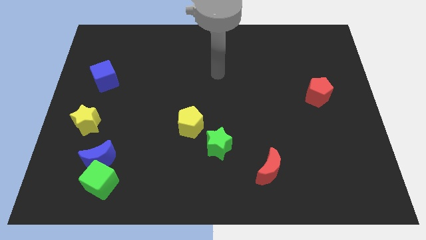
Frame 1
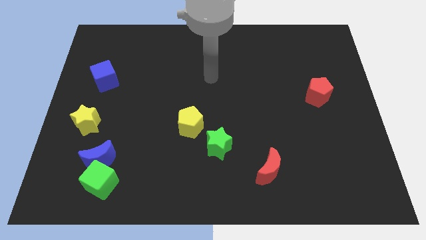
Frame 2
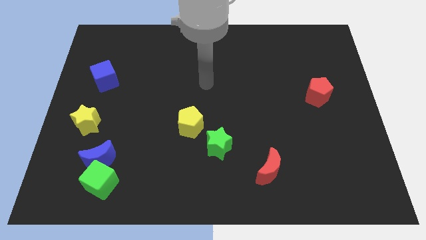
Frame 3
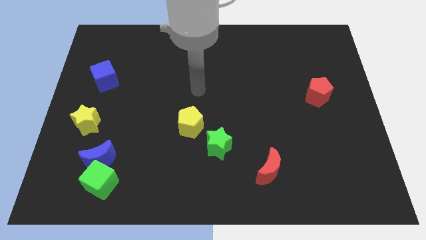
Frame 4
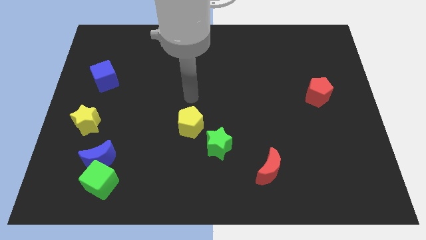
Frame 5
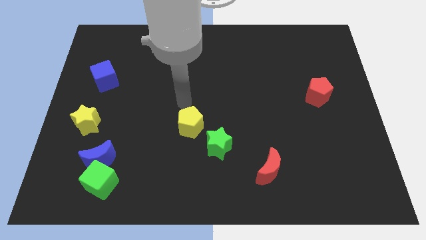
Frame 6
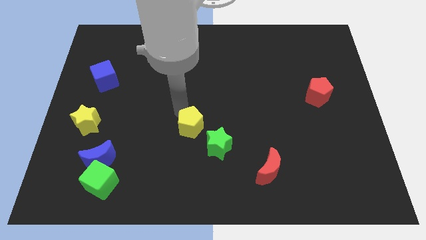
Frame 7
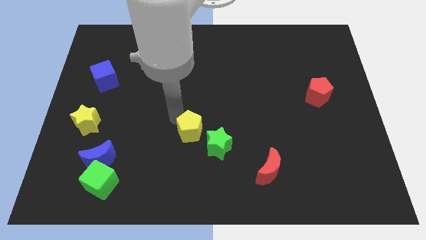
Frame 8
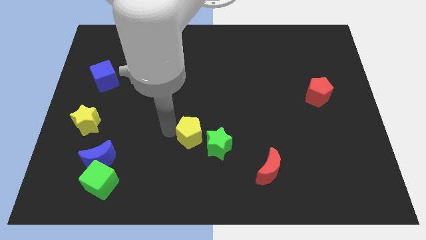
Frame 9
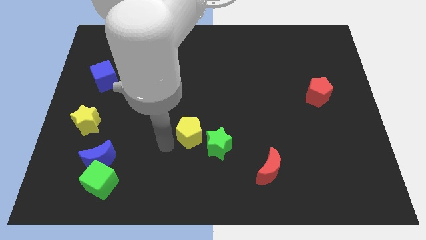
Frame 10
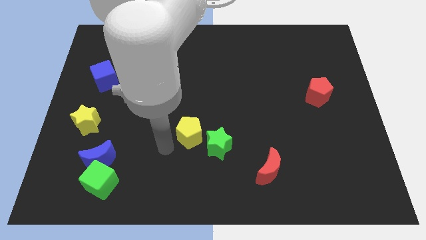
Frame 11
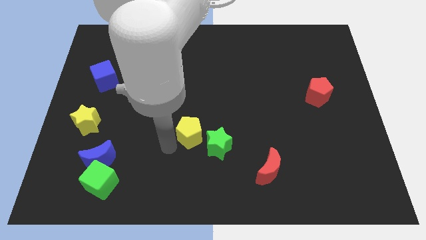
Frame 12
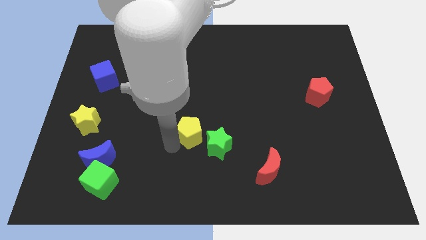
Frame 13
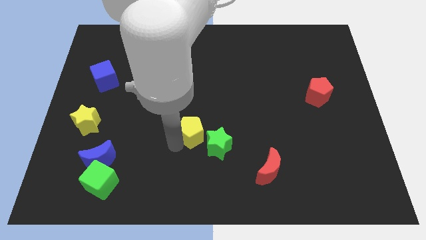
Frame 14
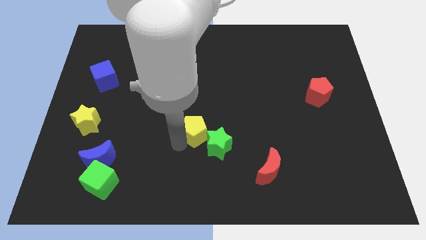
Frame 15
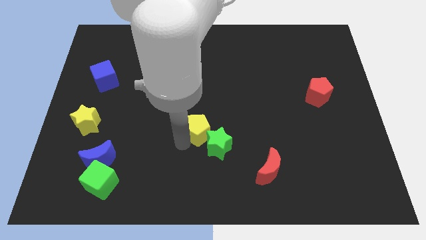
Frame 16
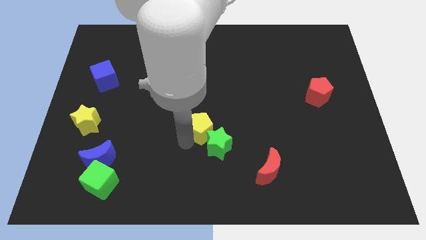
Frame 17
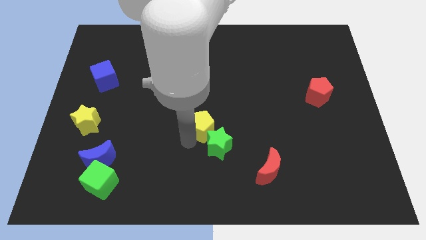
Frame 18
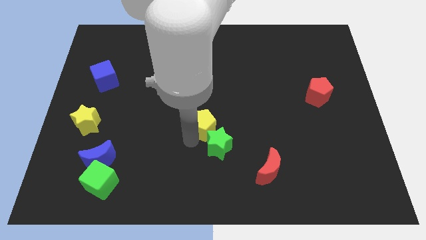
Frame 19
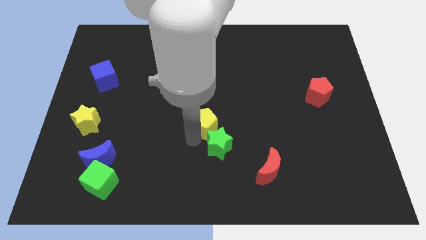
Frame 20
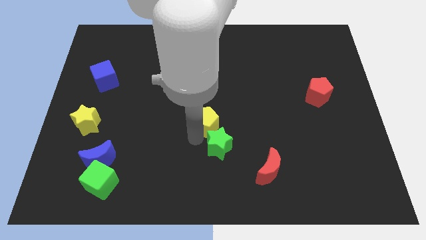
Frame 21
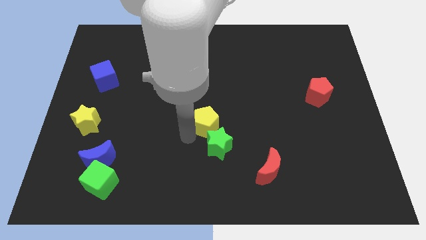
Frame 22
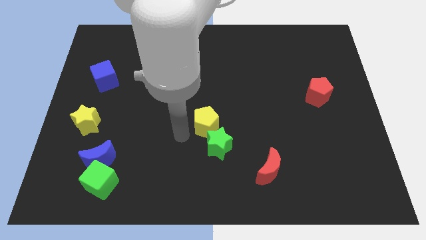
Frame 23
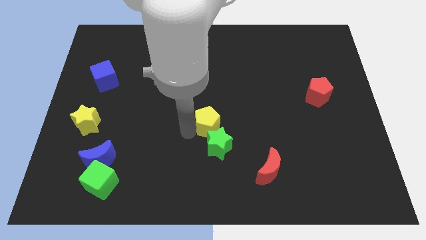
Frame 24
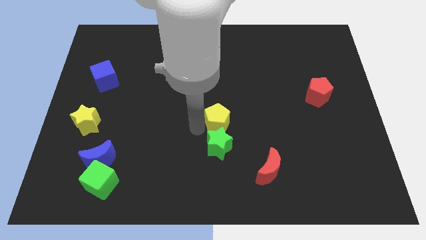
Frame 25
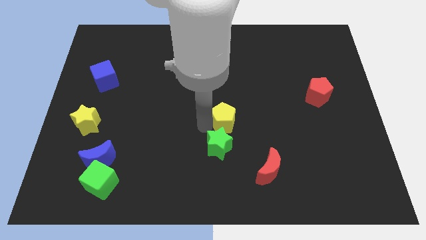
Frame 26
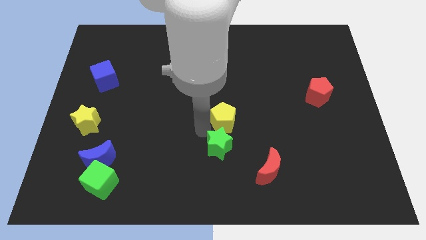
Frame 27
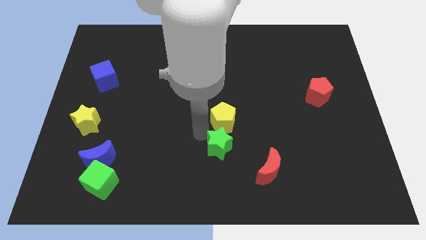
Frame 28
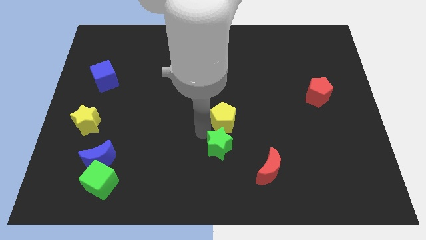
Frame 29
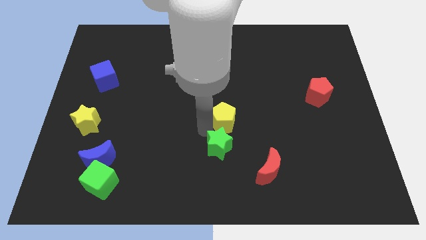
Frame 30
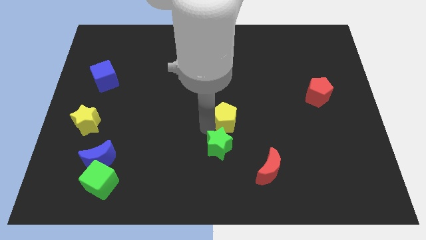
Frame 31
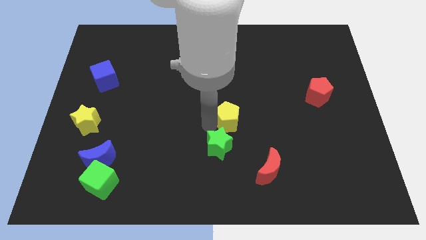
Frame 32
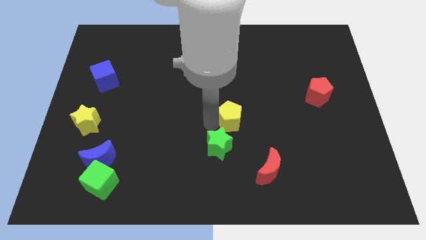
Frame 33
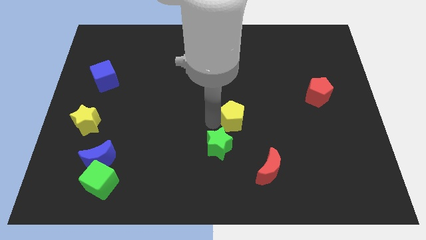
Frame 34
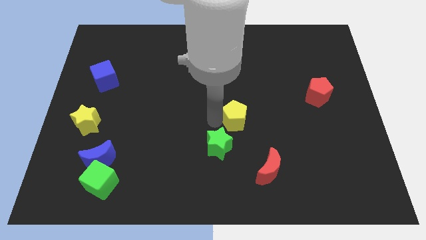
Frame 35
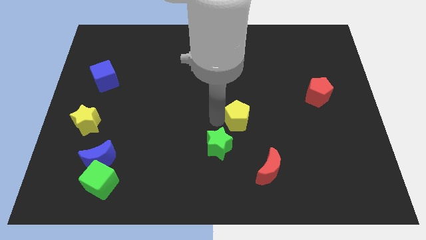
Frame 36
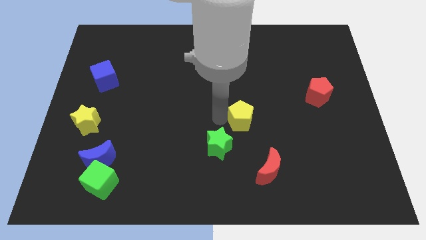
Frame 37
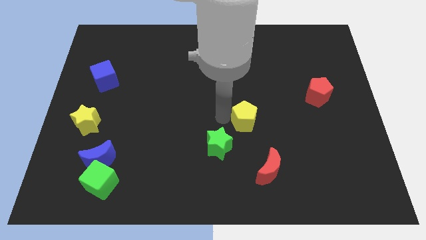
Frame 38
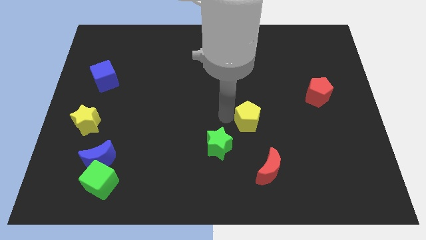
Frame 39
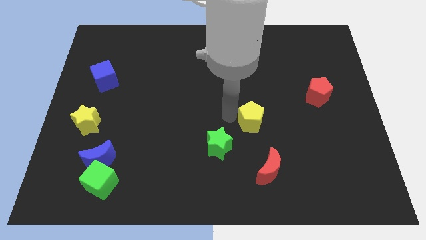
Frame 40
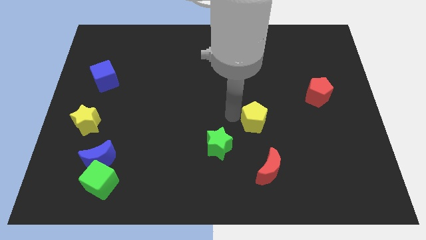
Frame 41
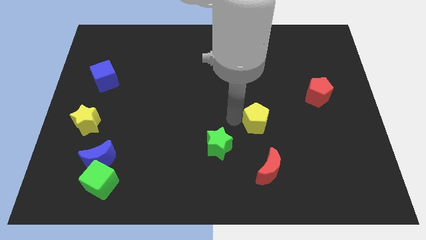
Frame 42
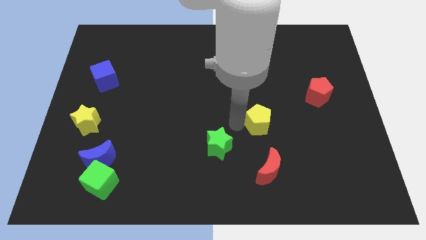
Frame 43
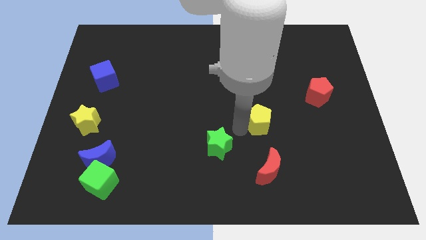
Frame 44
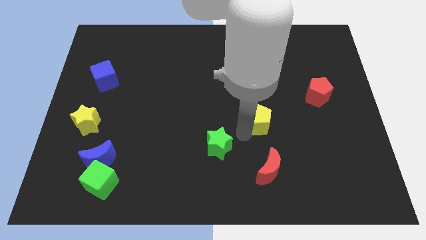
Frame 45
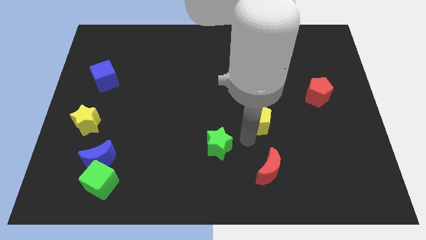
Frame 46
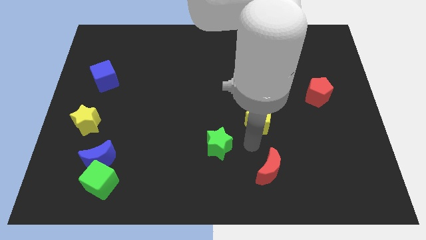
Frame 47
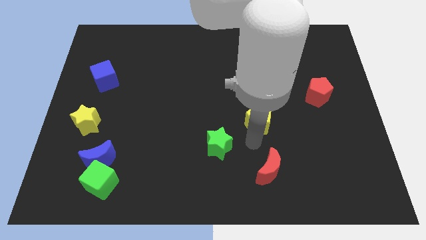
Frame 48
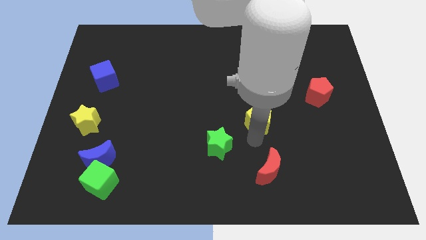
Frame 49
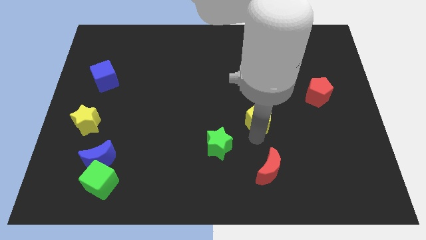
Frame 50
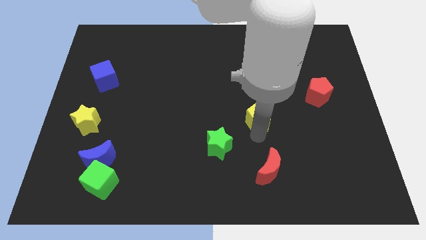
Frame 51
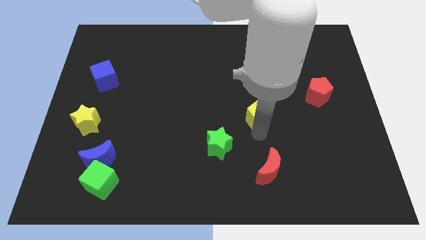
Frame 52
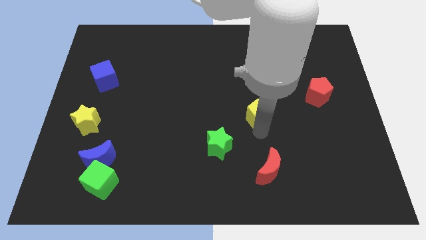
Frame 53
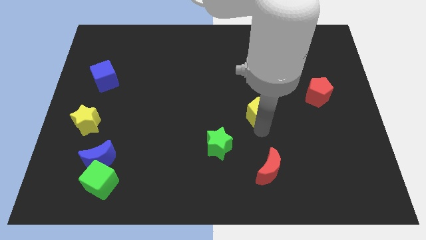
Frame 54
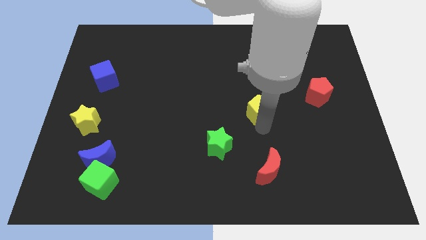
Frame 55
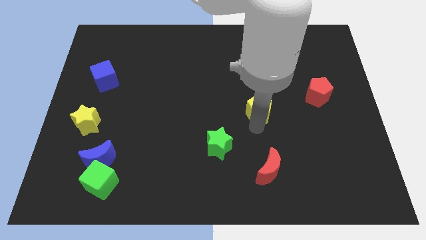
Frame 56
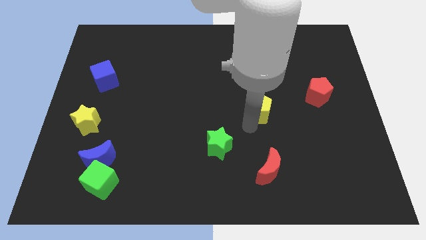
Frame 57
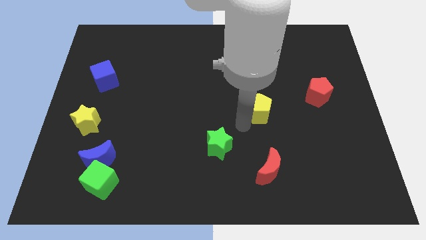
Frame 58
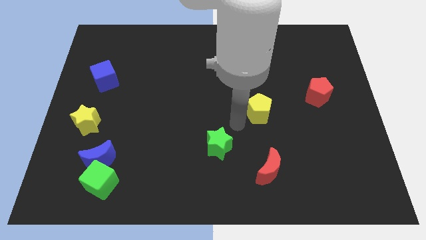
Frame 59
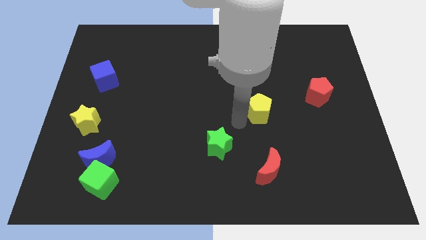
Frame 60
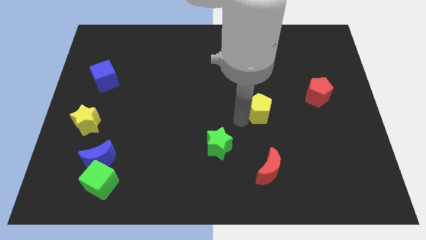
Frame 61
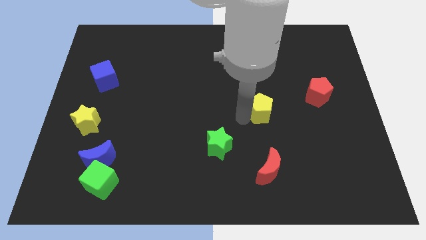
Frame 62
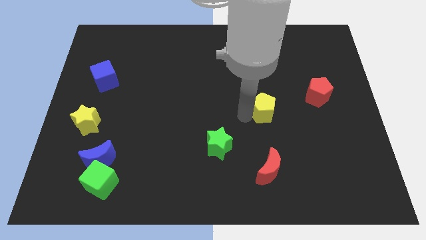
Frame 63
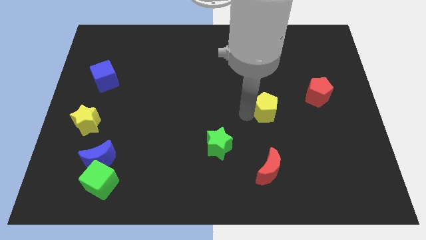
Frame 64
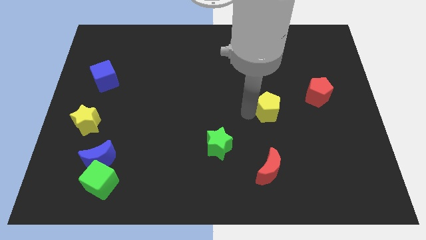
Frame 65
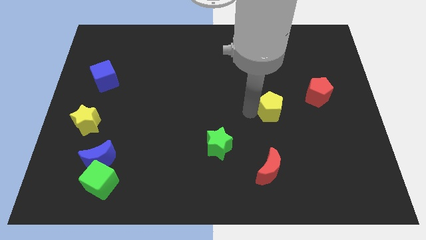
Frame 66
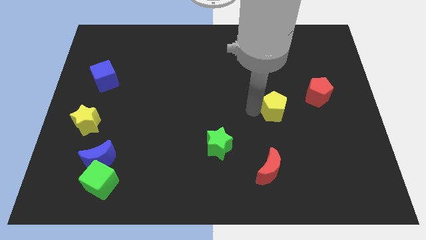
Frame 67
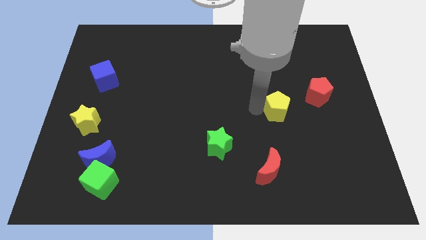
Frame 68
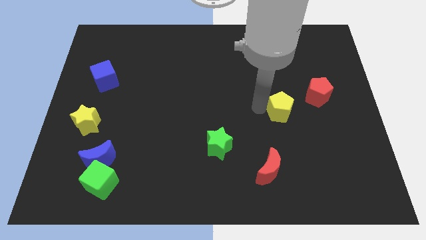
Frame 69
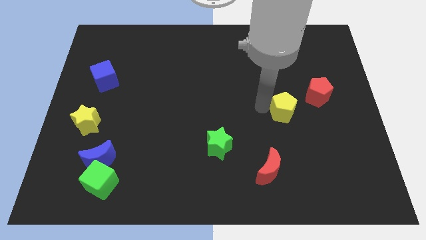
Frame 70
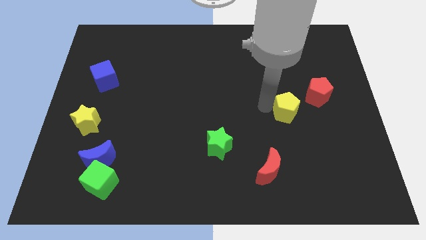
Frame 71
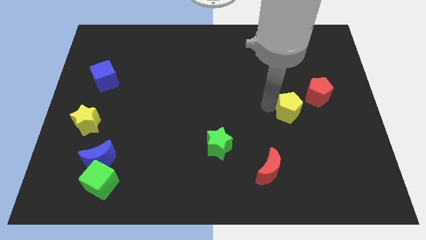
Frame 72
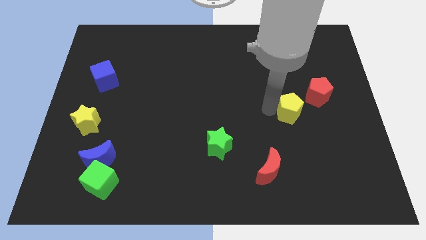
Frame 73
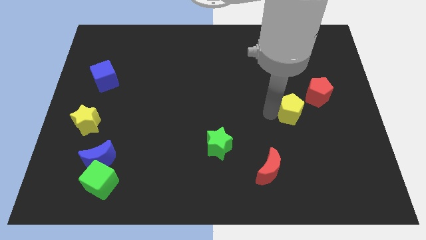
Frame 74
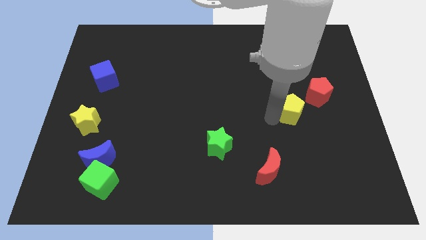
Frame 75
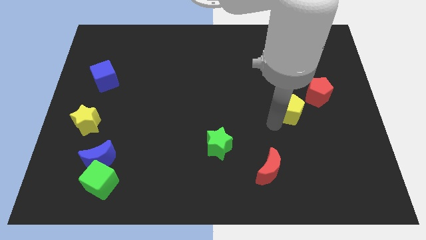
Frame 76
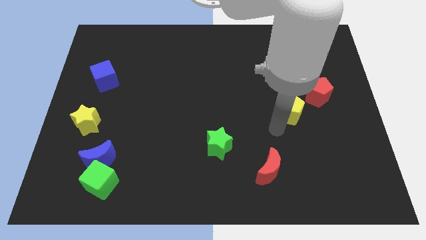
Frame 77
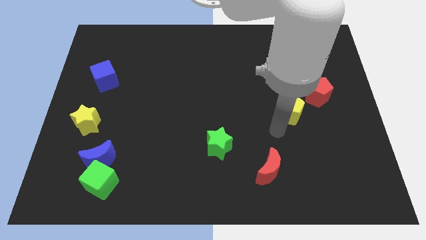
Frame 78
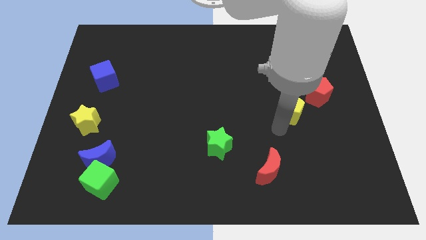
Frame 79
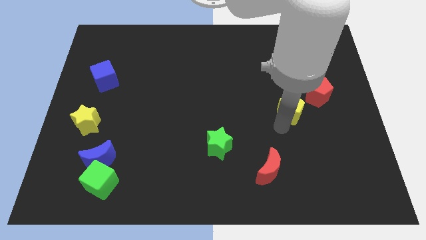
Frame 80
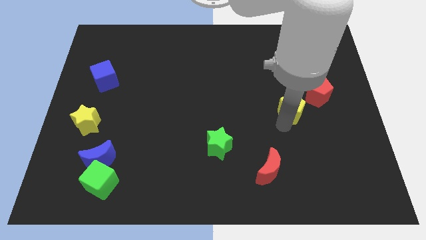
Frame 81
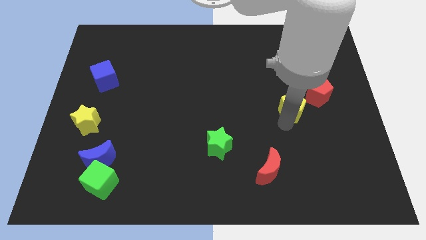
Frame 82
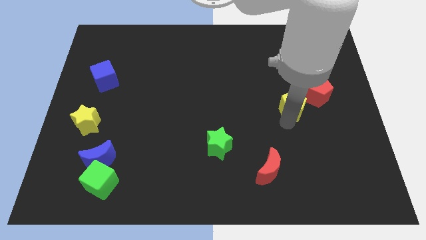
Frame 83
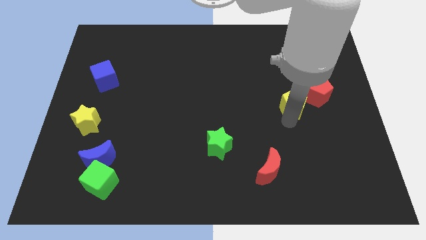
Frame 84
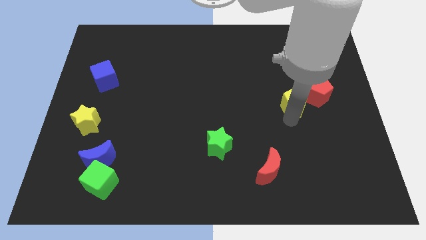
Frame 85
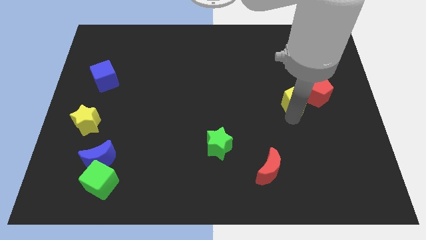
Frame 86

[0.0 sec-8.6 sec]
slide the yellow pentagon to the red pentagon

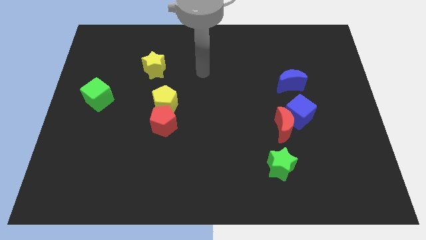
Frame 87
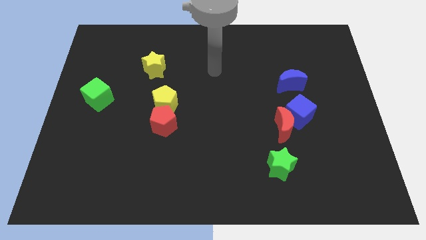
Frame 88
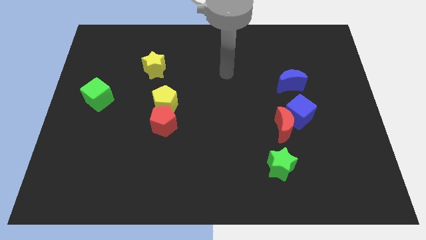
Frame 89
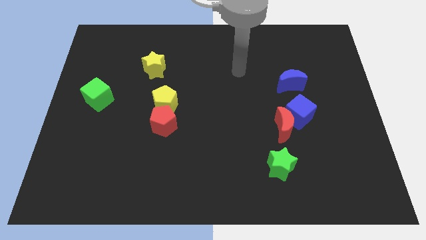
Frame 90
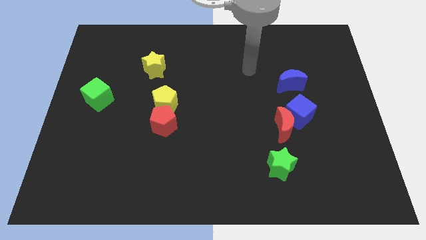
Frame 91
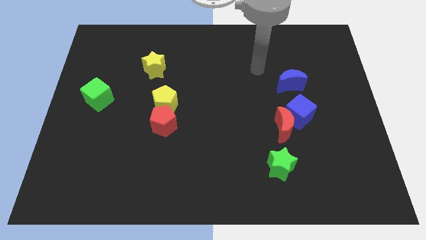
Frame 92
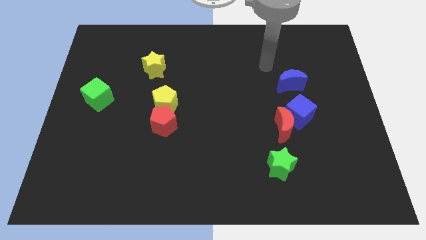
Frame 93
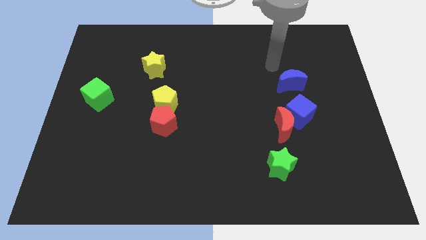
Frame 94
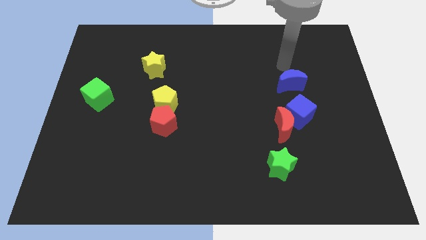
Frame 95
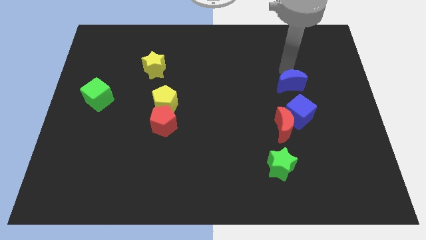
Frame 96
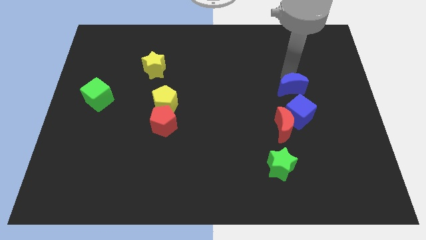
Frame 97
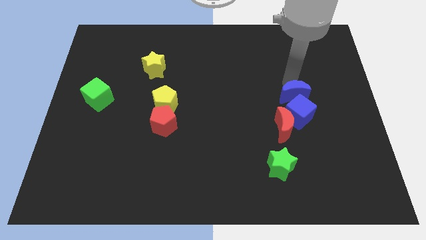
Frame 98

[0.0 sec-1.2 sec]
move the blue moon close to the blue cube
